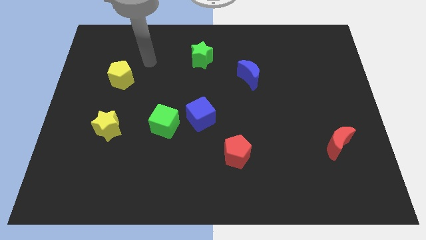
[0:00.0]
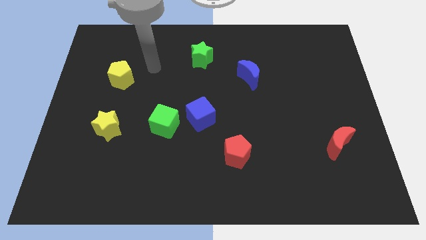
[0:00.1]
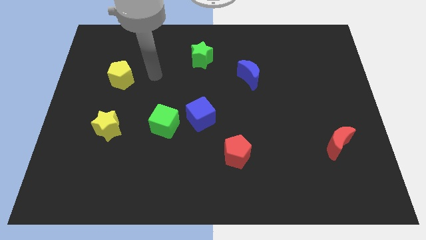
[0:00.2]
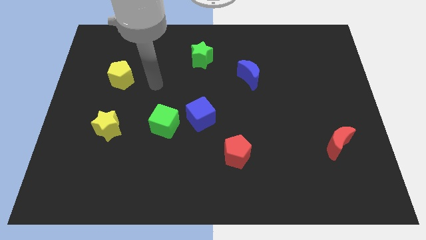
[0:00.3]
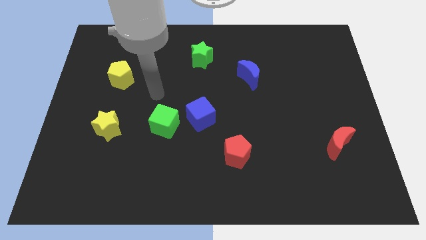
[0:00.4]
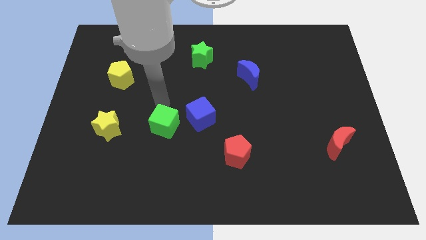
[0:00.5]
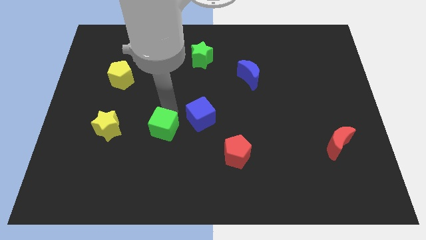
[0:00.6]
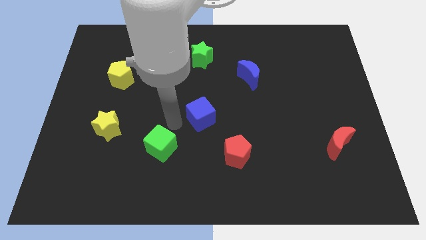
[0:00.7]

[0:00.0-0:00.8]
move the blue cube away from the green cube

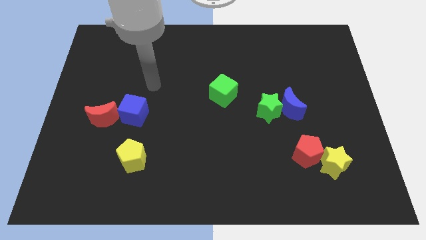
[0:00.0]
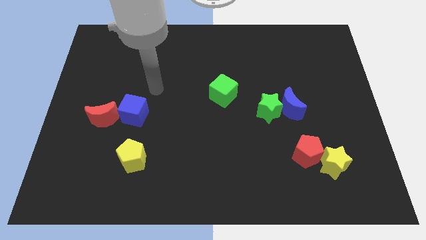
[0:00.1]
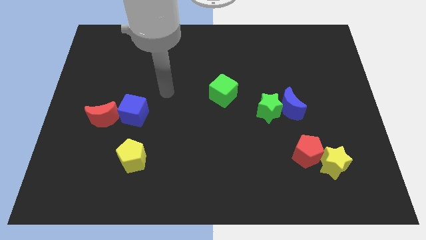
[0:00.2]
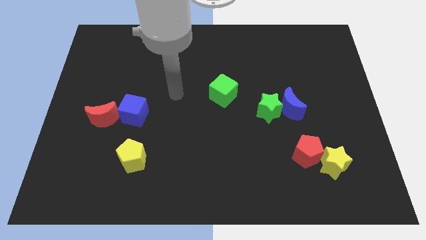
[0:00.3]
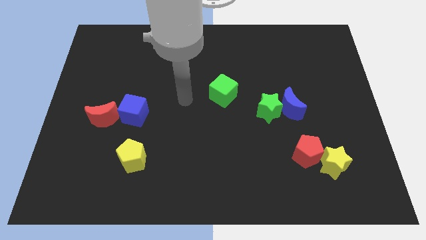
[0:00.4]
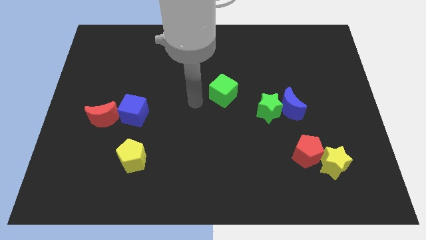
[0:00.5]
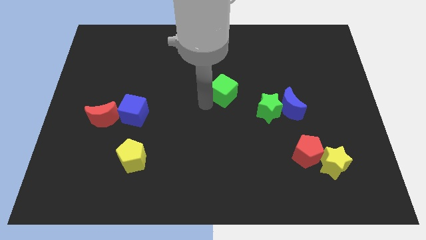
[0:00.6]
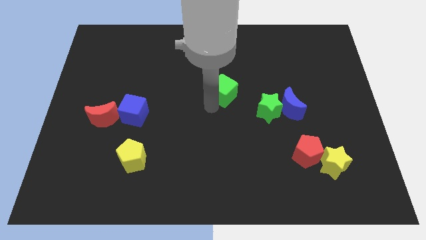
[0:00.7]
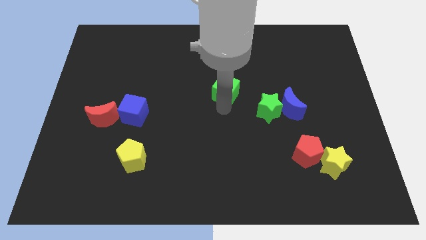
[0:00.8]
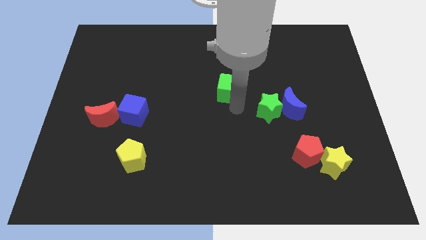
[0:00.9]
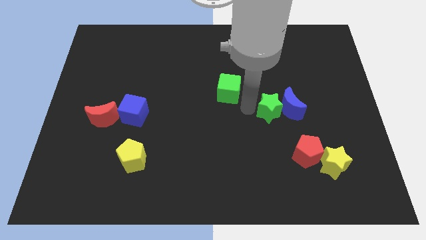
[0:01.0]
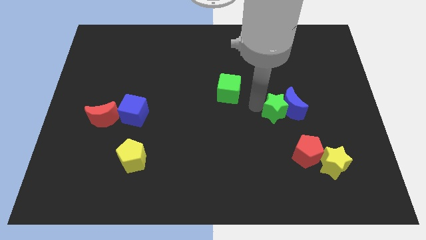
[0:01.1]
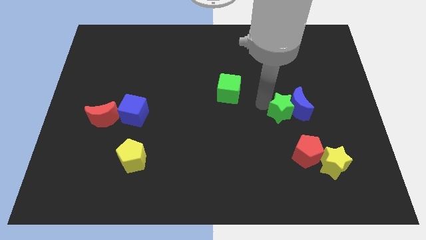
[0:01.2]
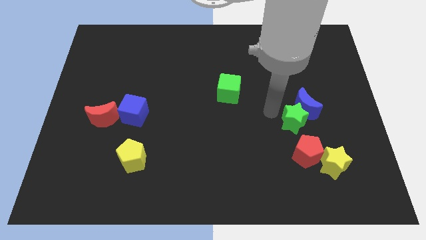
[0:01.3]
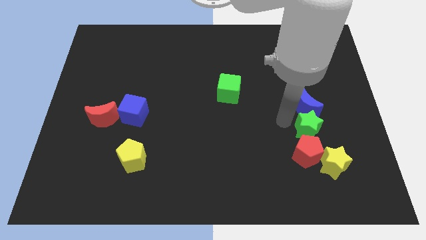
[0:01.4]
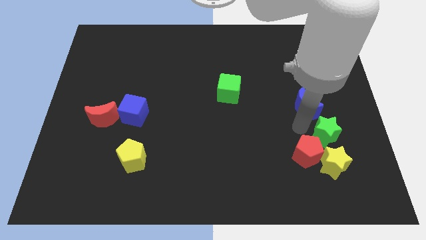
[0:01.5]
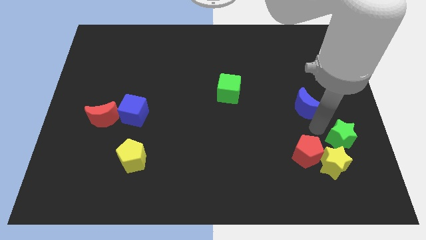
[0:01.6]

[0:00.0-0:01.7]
pull the blue moon apart from the green star

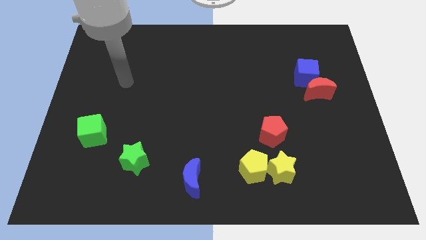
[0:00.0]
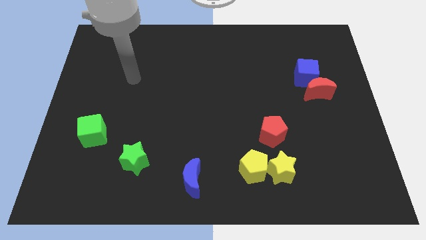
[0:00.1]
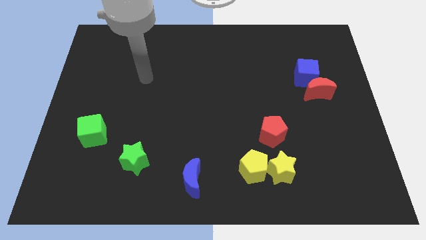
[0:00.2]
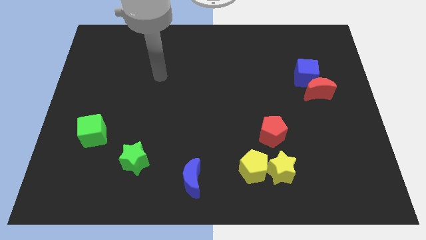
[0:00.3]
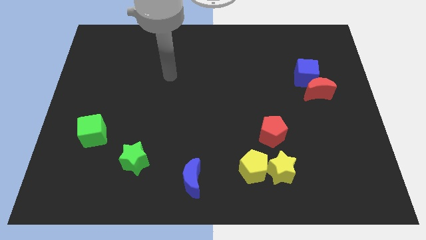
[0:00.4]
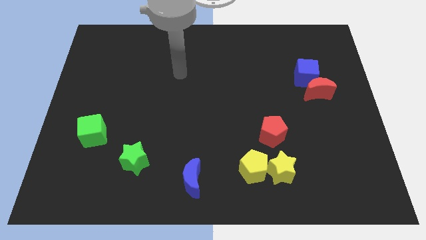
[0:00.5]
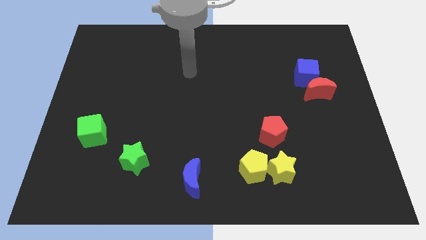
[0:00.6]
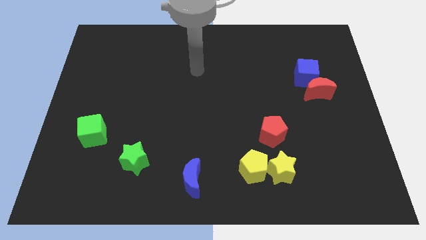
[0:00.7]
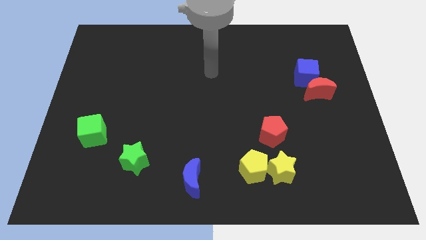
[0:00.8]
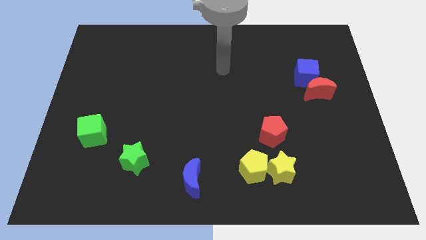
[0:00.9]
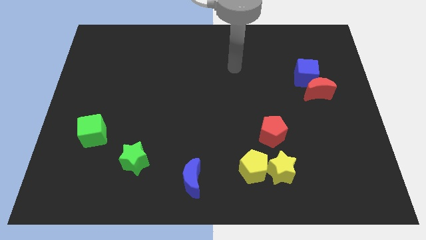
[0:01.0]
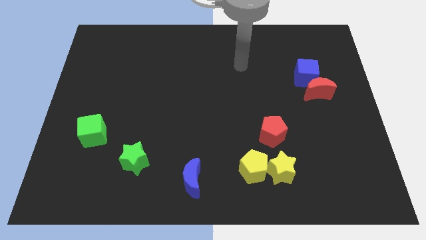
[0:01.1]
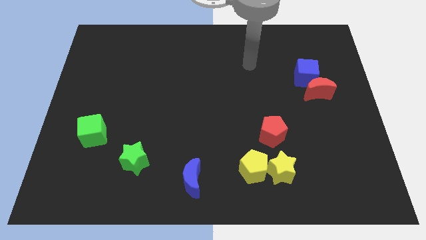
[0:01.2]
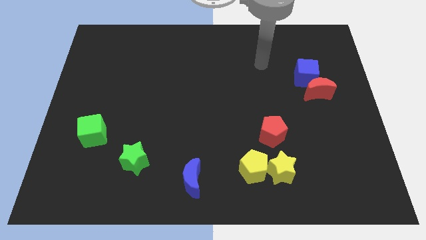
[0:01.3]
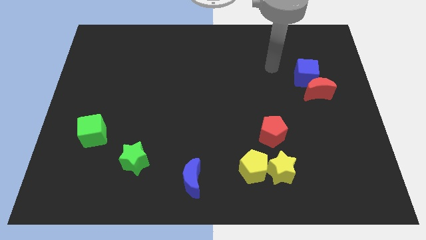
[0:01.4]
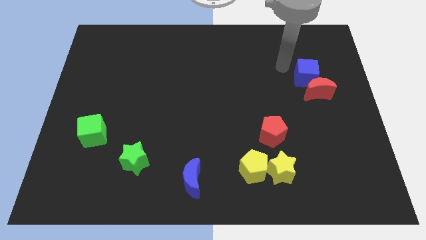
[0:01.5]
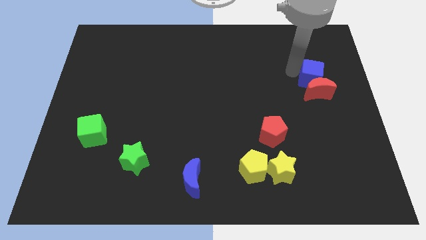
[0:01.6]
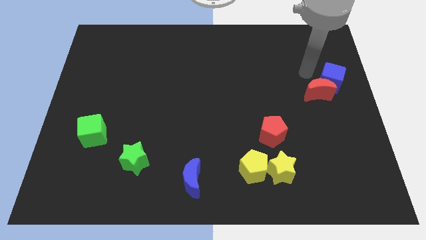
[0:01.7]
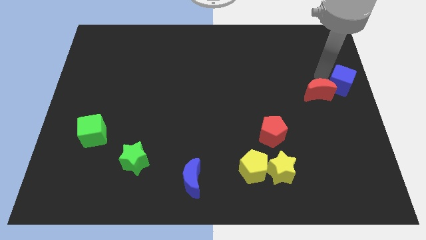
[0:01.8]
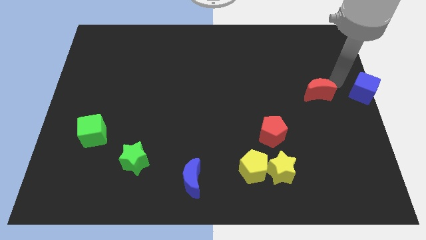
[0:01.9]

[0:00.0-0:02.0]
pull the red moon apart from the blue cube

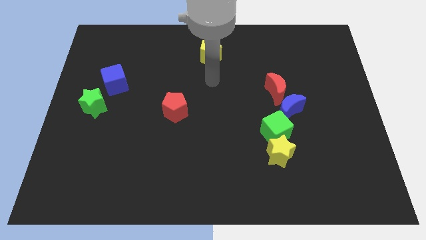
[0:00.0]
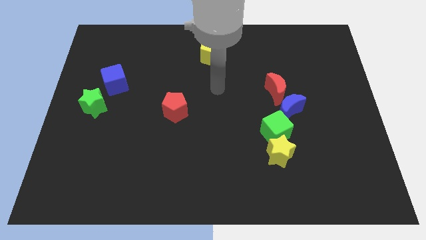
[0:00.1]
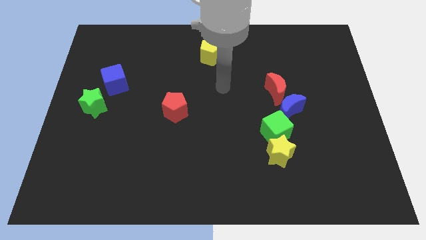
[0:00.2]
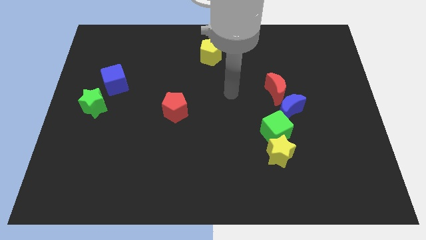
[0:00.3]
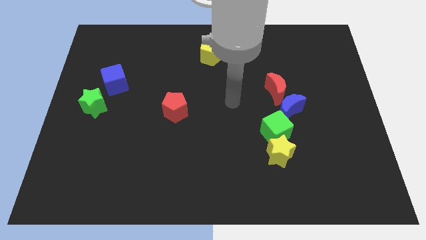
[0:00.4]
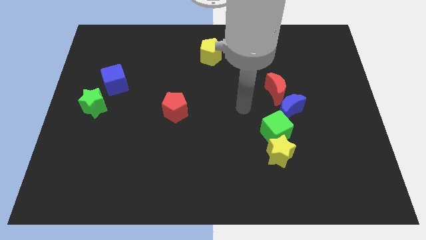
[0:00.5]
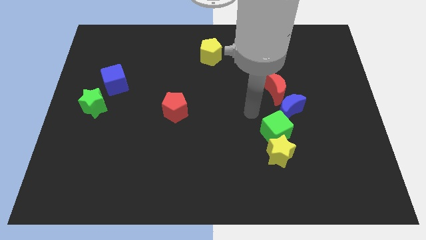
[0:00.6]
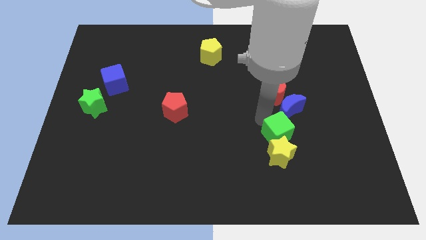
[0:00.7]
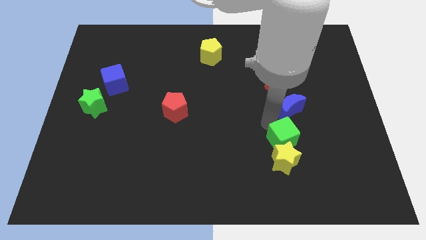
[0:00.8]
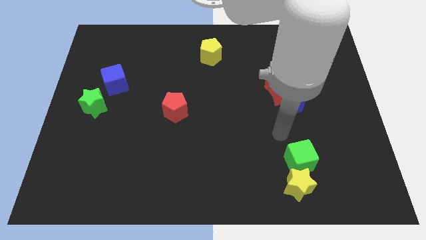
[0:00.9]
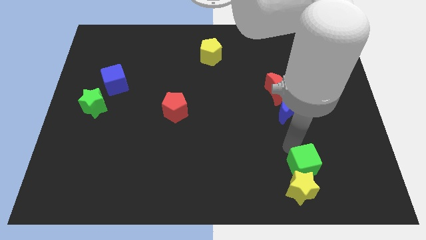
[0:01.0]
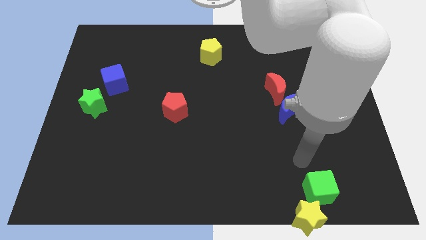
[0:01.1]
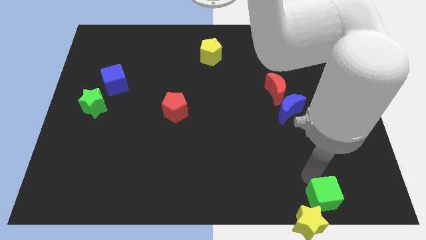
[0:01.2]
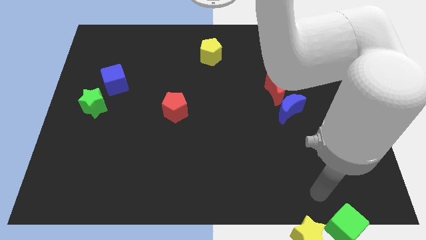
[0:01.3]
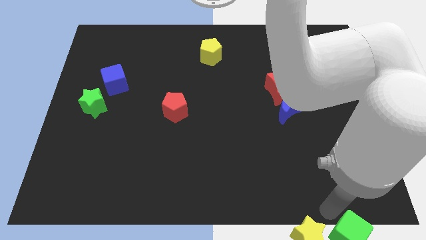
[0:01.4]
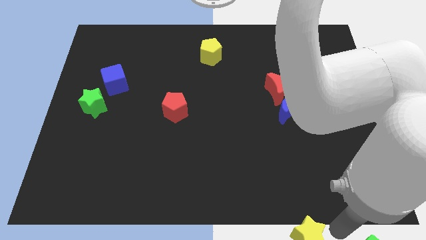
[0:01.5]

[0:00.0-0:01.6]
move the yellow star away from the green cube

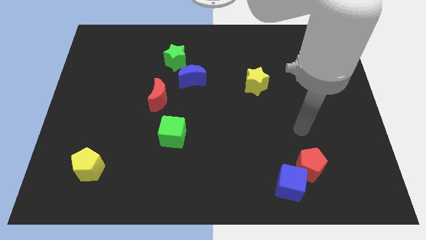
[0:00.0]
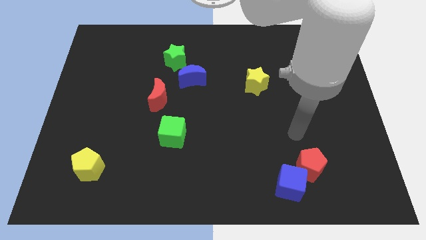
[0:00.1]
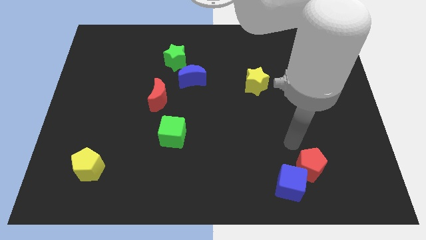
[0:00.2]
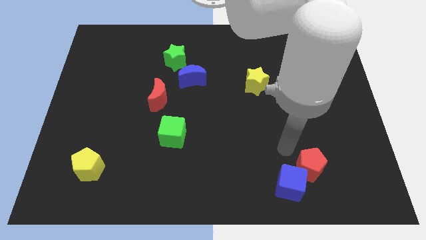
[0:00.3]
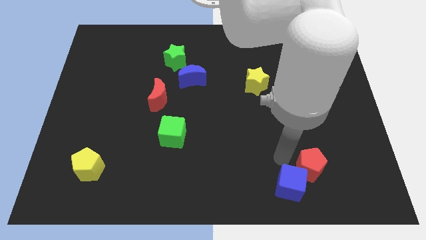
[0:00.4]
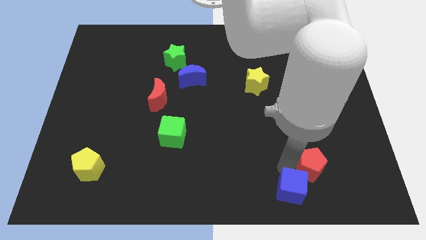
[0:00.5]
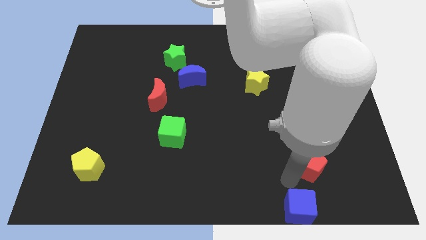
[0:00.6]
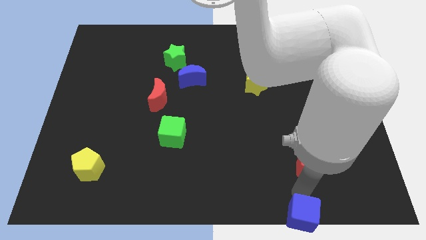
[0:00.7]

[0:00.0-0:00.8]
move the red pentagon away from the blue cube

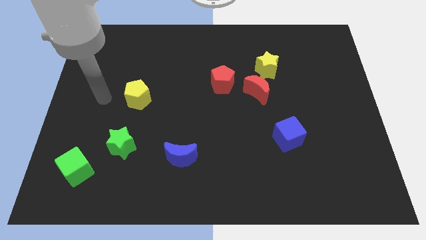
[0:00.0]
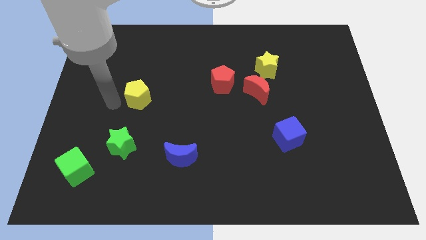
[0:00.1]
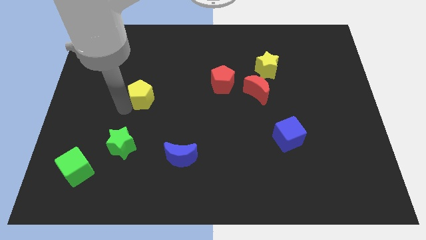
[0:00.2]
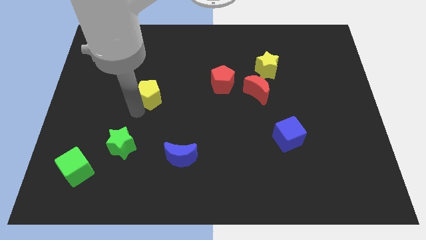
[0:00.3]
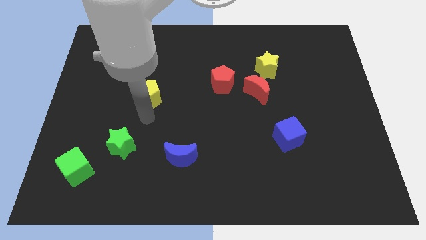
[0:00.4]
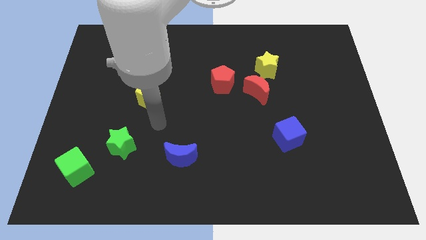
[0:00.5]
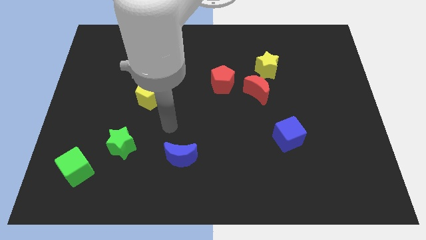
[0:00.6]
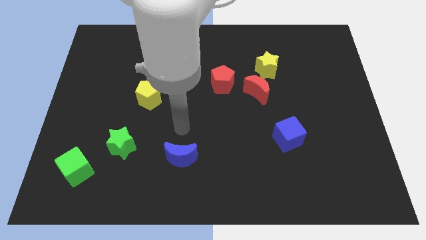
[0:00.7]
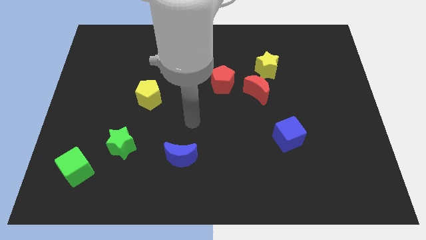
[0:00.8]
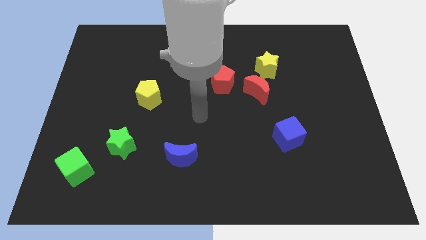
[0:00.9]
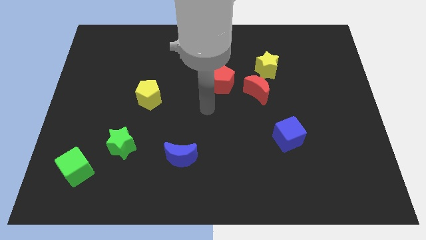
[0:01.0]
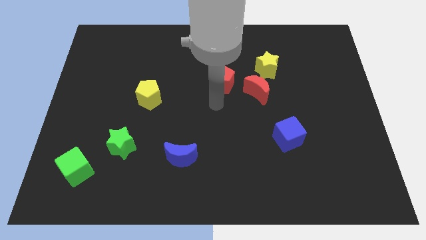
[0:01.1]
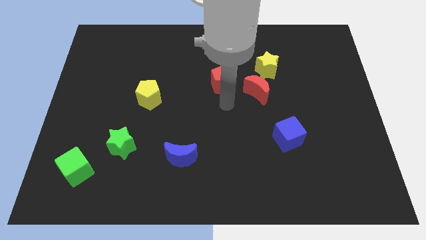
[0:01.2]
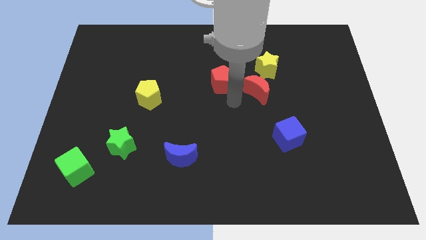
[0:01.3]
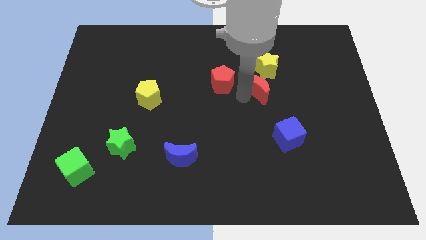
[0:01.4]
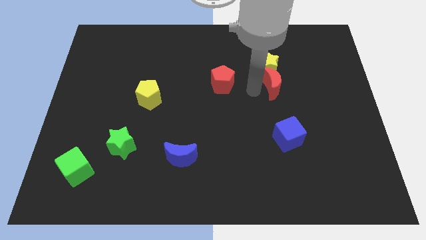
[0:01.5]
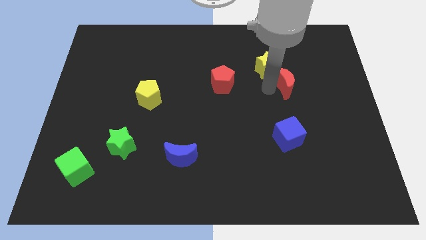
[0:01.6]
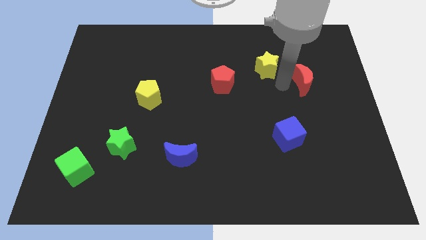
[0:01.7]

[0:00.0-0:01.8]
separate the yellow star from the red moon

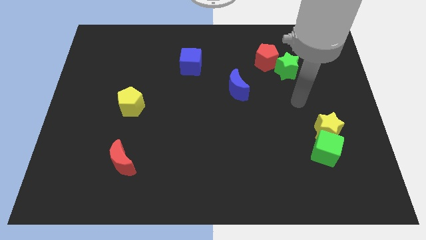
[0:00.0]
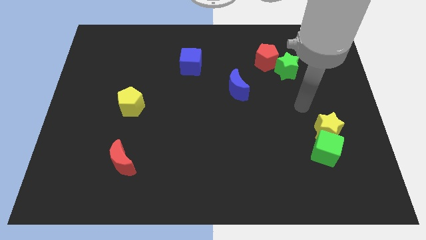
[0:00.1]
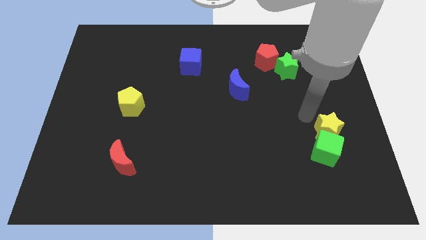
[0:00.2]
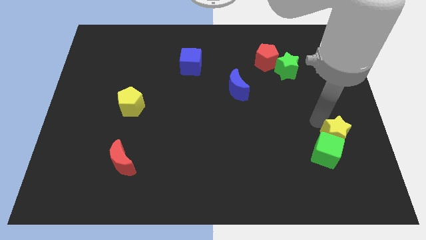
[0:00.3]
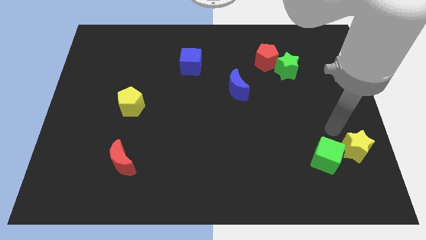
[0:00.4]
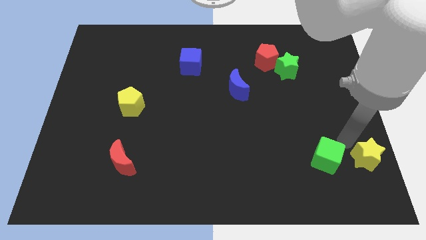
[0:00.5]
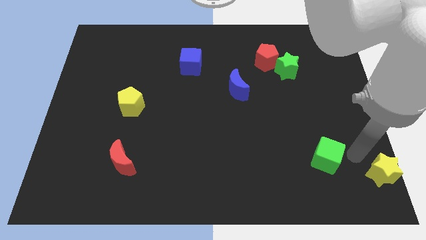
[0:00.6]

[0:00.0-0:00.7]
pull the green cube apart from the yellow star
